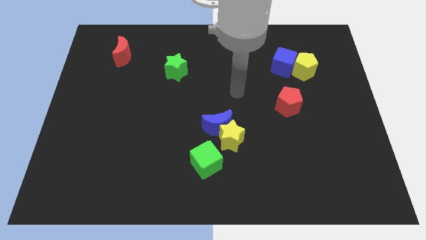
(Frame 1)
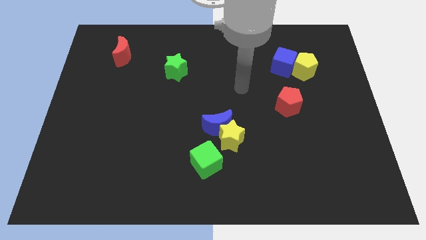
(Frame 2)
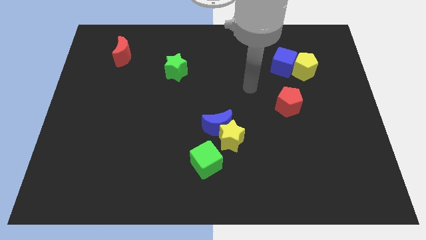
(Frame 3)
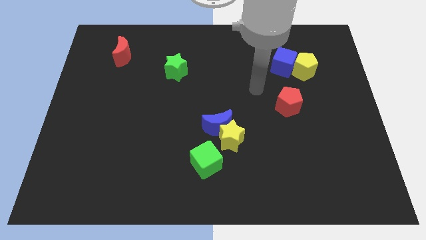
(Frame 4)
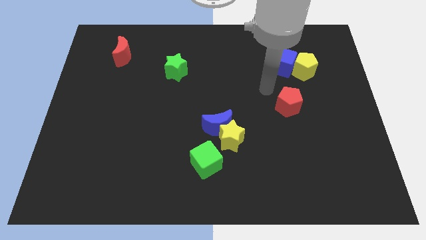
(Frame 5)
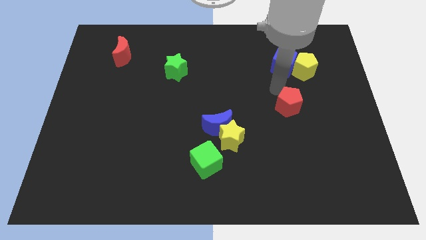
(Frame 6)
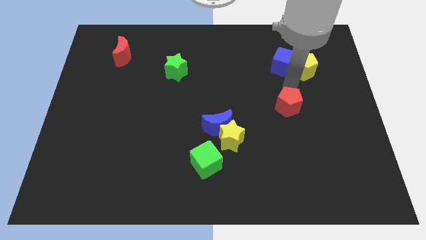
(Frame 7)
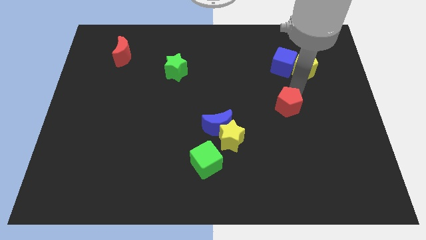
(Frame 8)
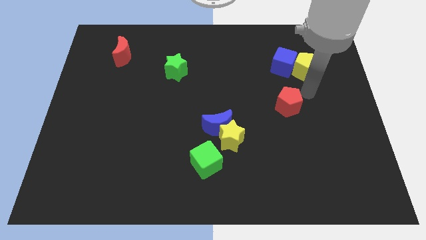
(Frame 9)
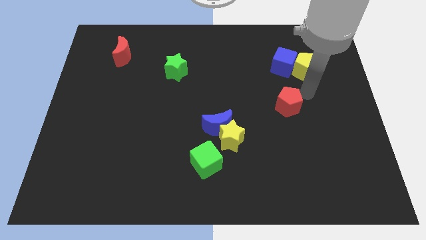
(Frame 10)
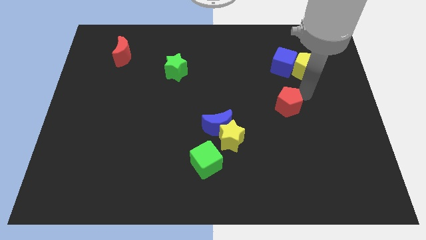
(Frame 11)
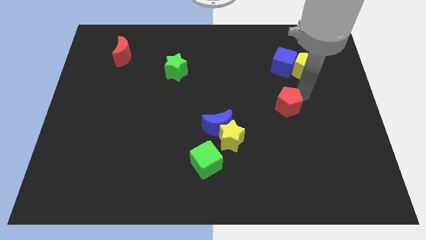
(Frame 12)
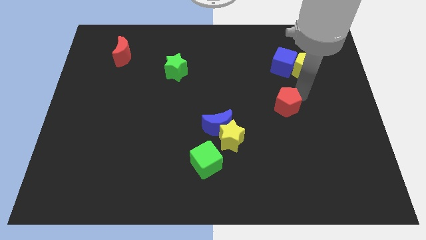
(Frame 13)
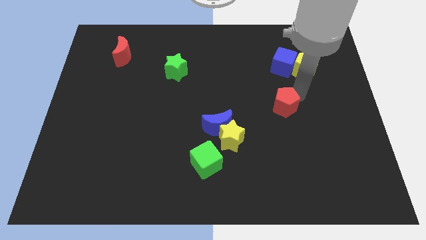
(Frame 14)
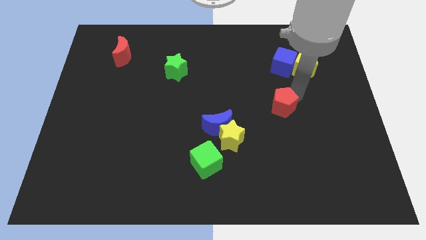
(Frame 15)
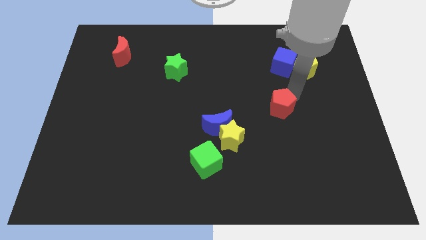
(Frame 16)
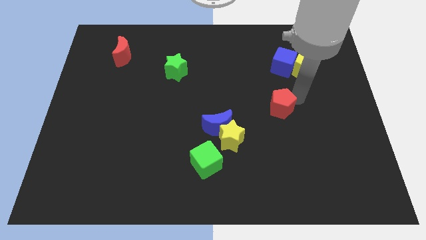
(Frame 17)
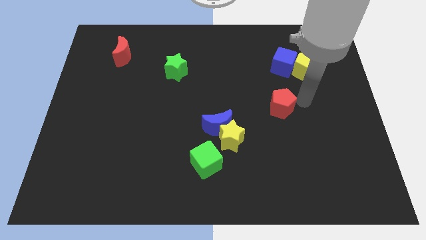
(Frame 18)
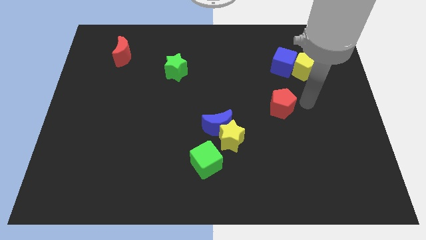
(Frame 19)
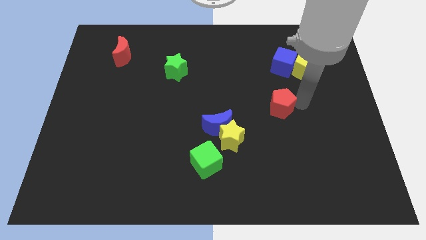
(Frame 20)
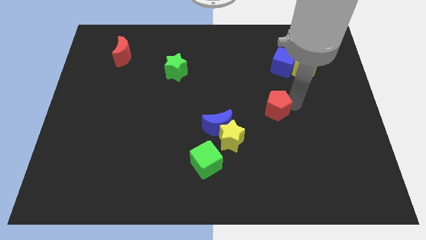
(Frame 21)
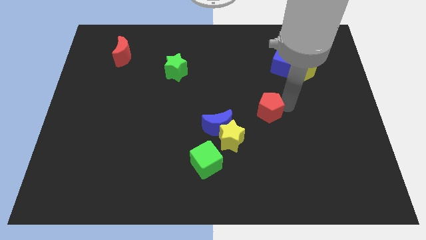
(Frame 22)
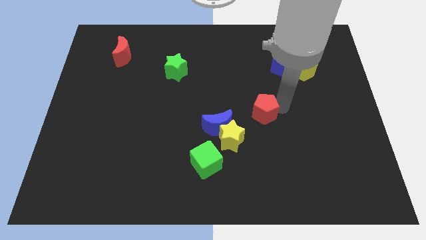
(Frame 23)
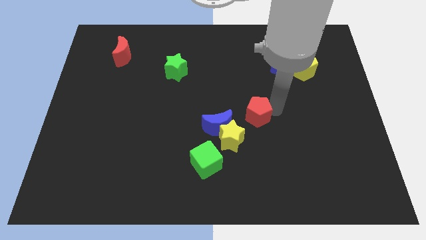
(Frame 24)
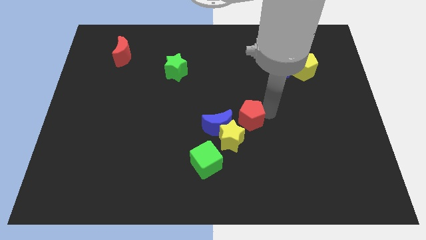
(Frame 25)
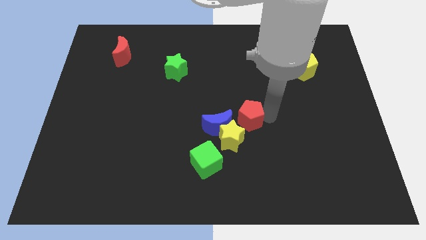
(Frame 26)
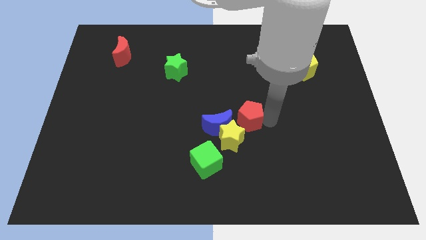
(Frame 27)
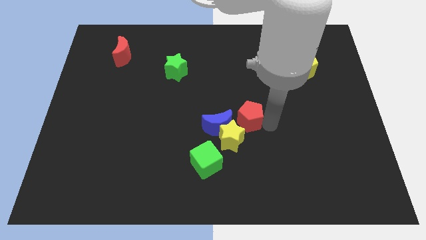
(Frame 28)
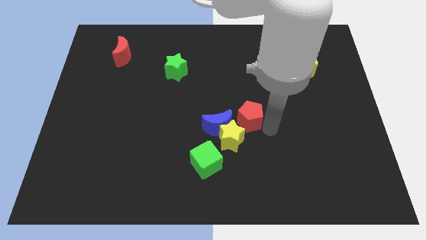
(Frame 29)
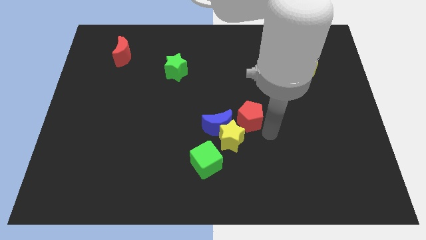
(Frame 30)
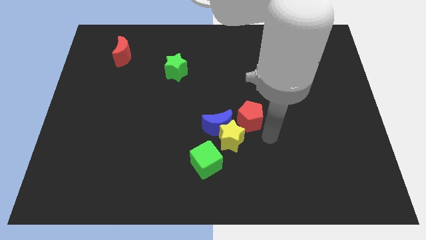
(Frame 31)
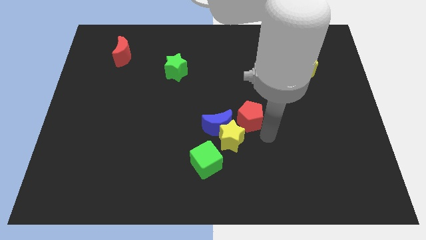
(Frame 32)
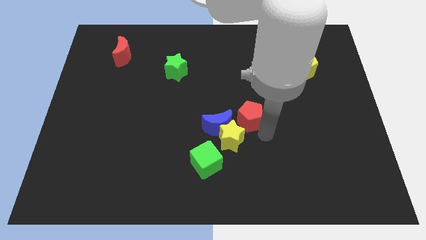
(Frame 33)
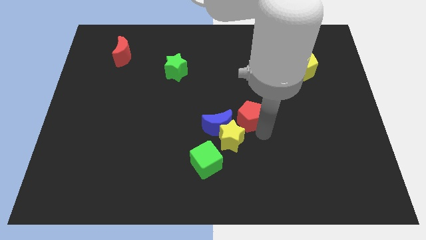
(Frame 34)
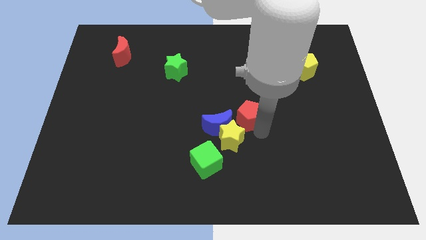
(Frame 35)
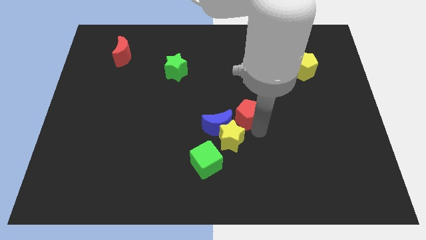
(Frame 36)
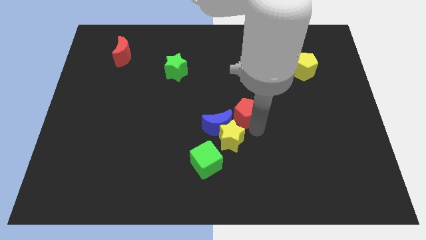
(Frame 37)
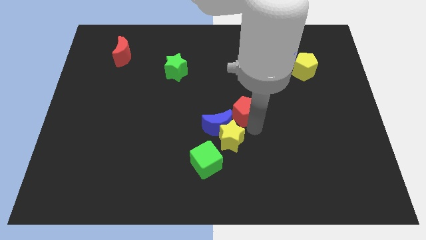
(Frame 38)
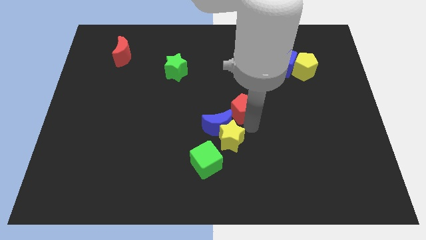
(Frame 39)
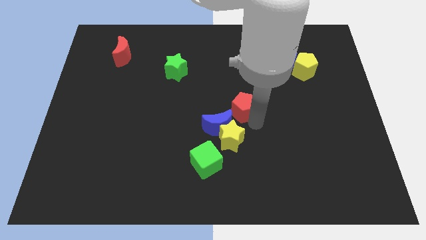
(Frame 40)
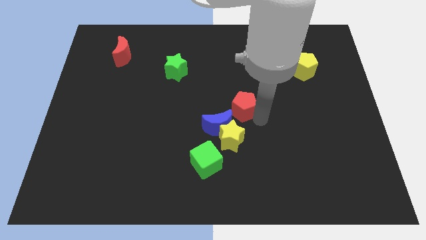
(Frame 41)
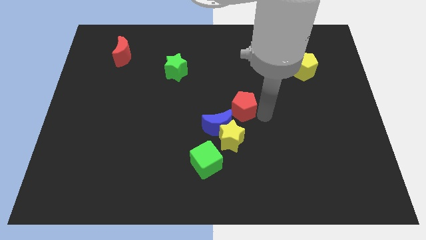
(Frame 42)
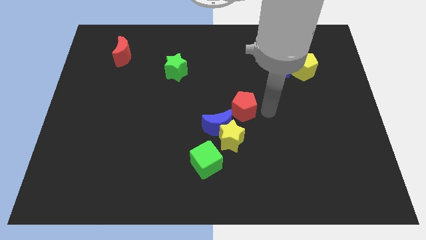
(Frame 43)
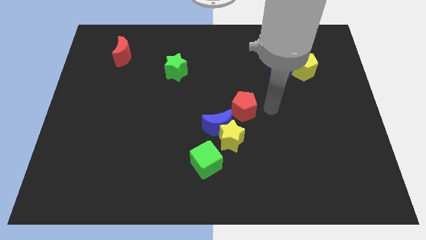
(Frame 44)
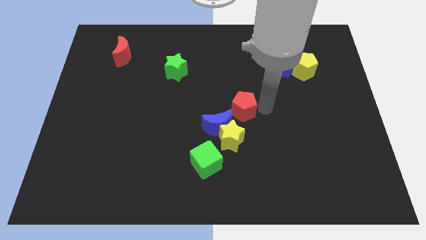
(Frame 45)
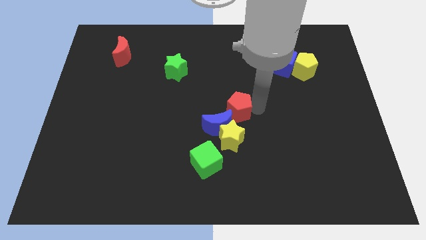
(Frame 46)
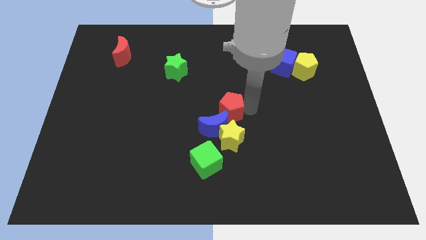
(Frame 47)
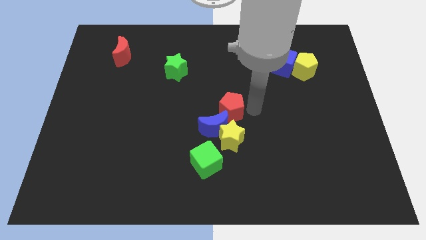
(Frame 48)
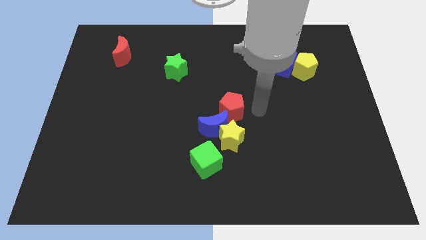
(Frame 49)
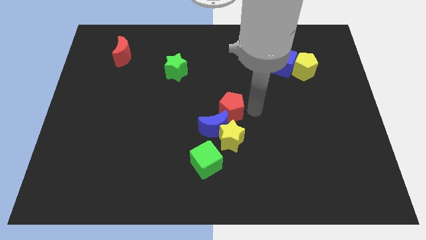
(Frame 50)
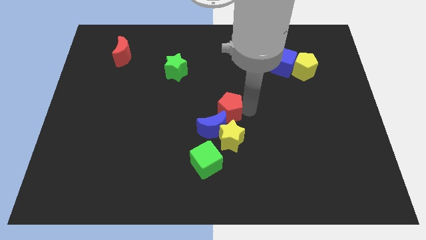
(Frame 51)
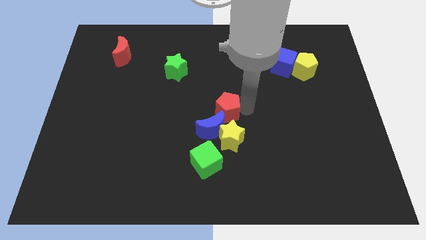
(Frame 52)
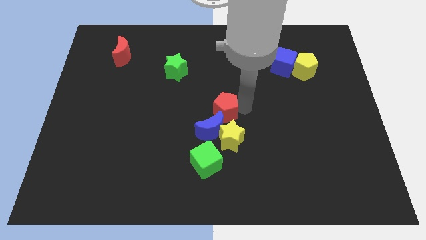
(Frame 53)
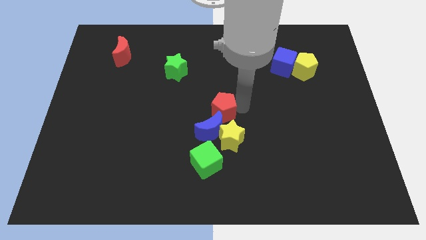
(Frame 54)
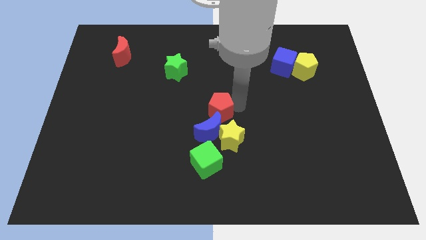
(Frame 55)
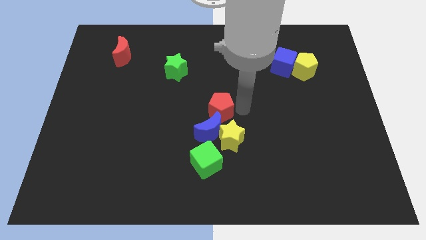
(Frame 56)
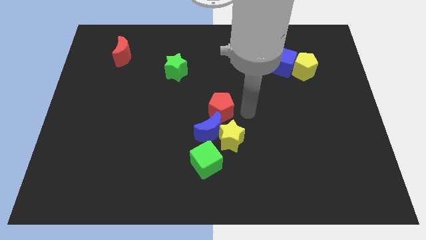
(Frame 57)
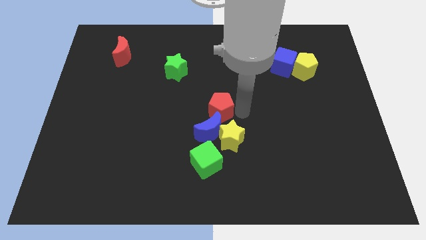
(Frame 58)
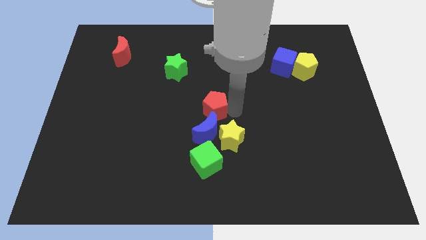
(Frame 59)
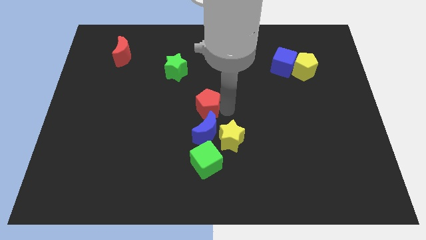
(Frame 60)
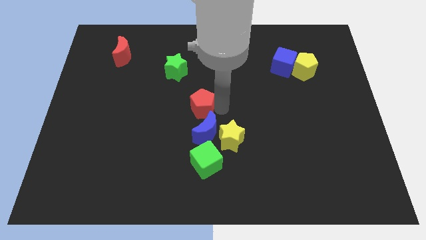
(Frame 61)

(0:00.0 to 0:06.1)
slide the red pentagon to the left

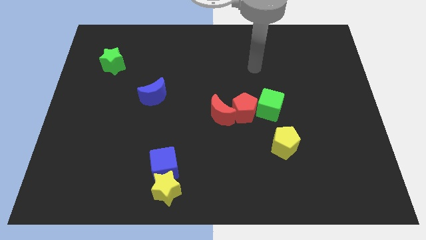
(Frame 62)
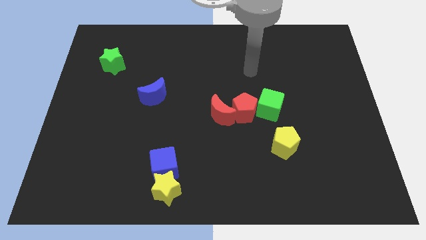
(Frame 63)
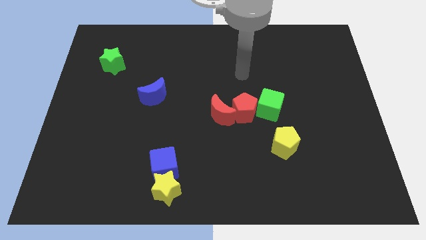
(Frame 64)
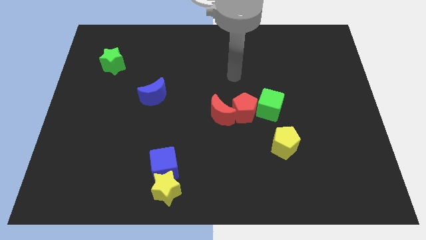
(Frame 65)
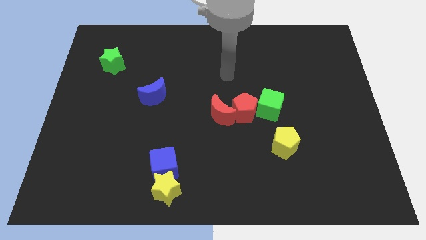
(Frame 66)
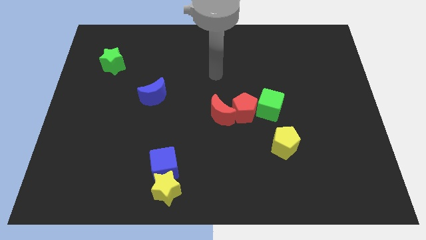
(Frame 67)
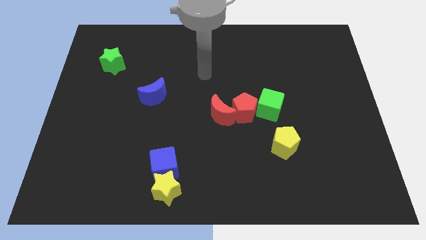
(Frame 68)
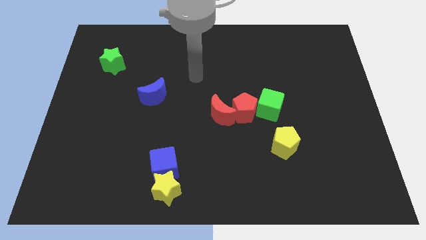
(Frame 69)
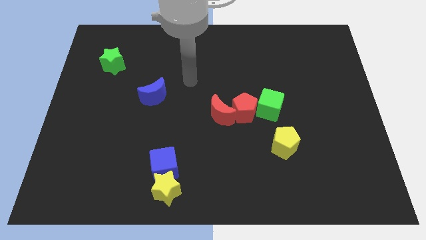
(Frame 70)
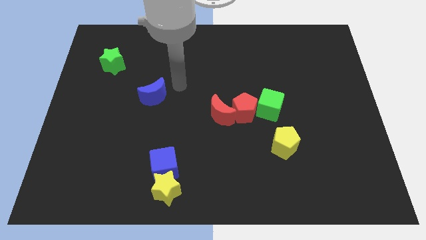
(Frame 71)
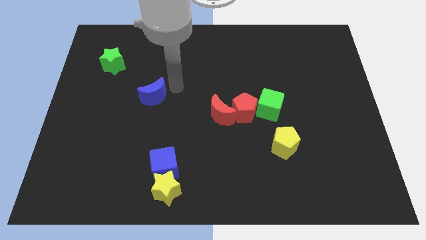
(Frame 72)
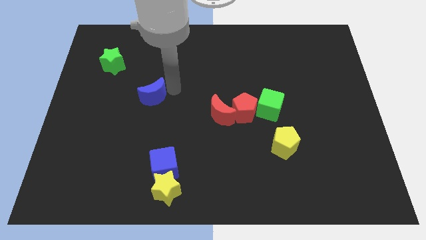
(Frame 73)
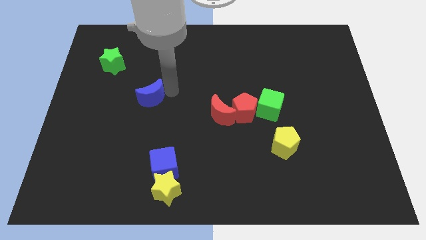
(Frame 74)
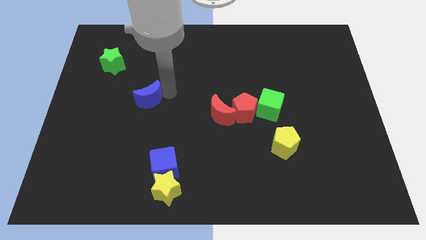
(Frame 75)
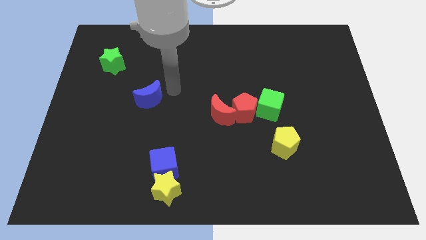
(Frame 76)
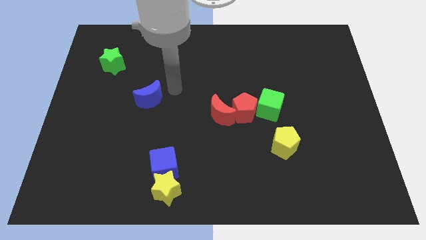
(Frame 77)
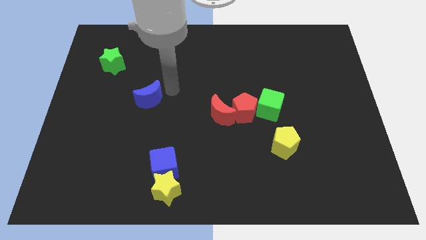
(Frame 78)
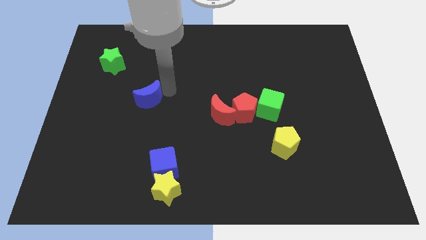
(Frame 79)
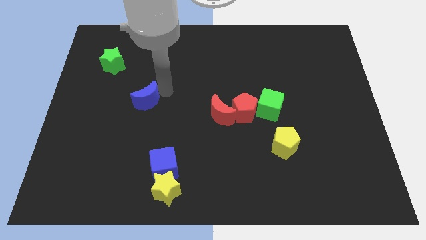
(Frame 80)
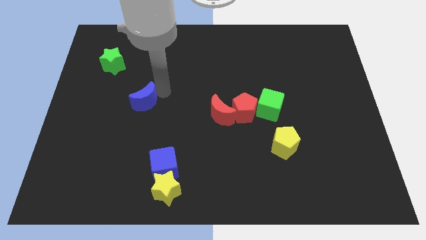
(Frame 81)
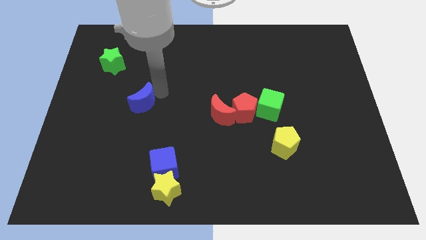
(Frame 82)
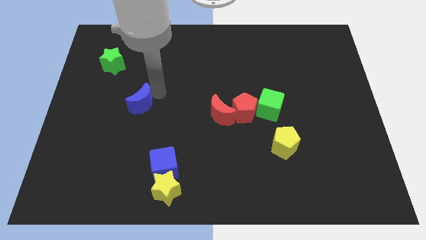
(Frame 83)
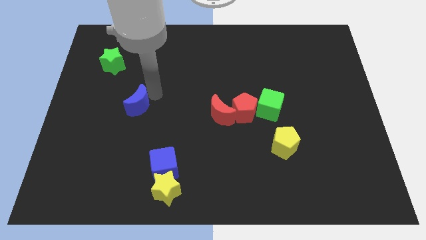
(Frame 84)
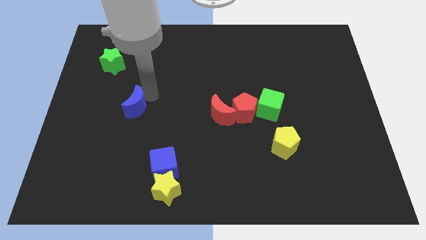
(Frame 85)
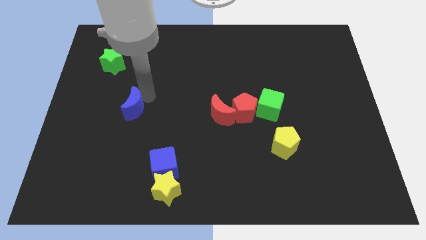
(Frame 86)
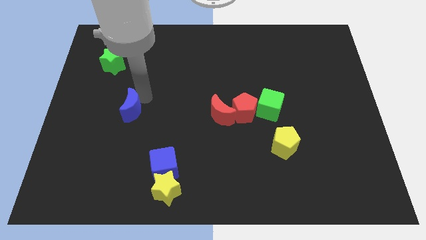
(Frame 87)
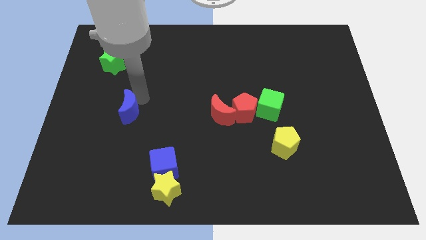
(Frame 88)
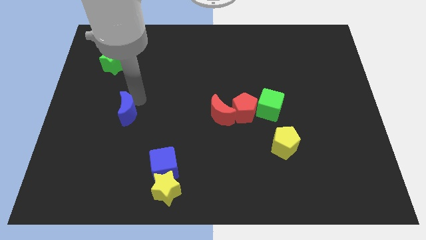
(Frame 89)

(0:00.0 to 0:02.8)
move the blue moon down and left diagonally slightly
